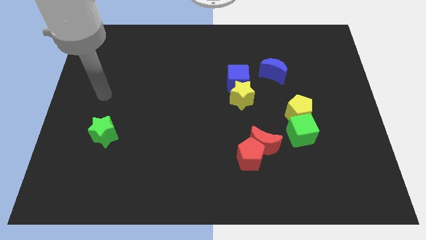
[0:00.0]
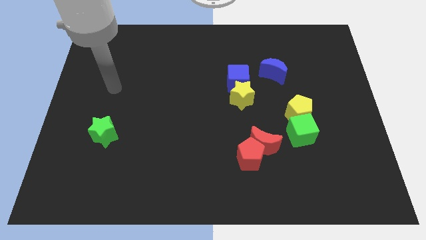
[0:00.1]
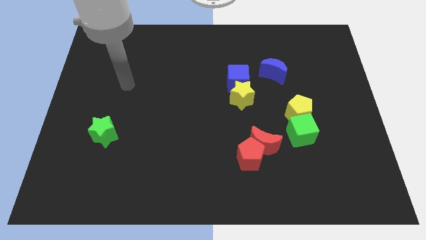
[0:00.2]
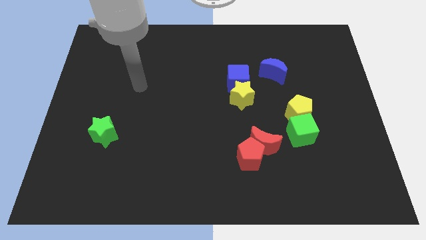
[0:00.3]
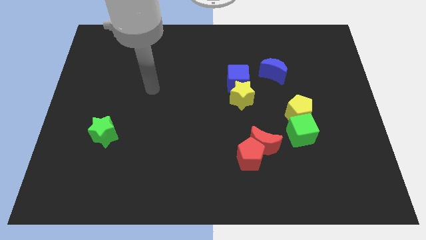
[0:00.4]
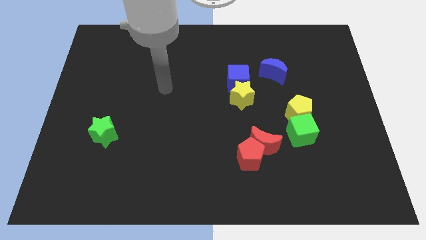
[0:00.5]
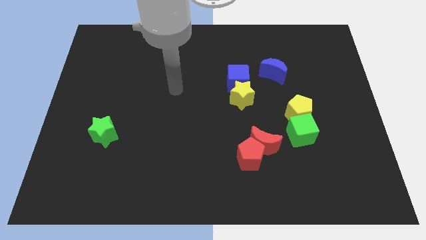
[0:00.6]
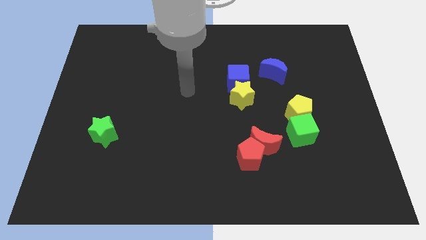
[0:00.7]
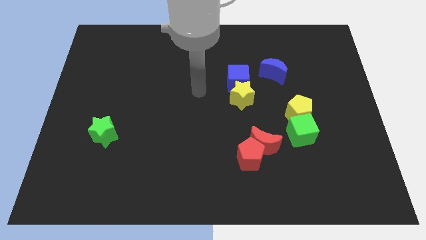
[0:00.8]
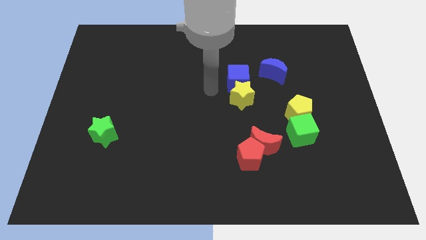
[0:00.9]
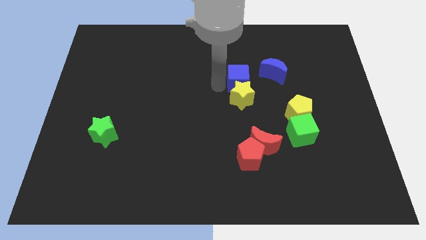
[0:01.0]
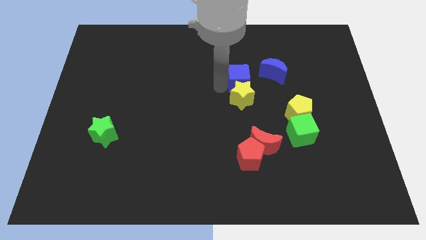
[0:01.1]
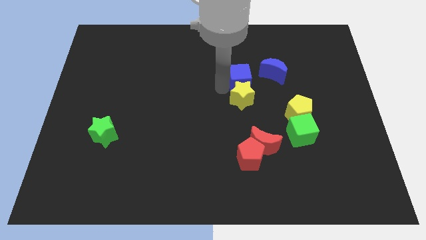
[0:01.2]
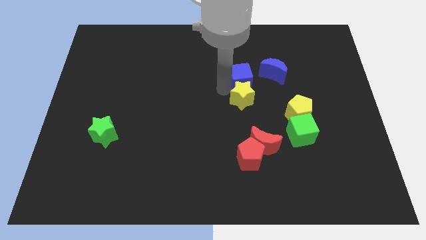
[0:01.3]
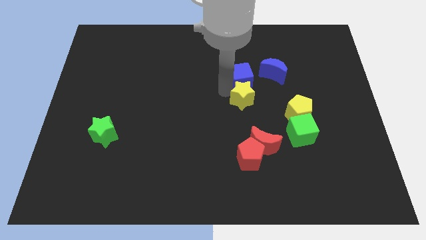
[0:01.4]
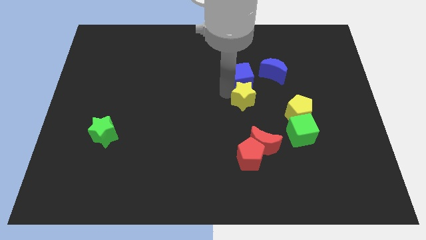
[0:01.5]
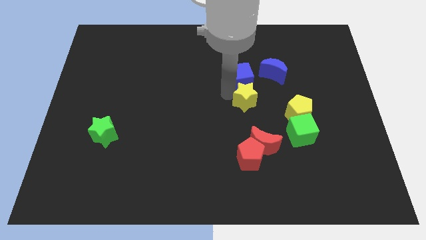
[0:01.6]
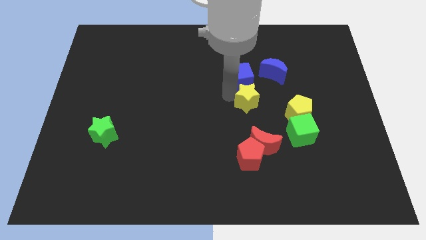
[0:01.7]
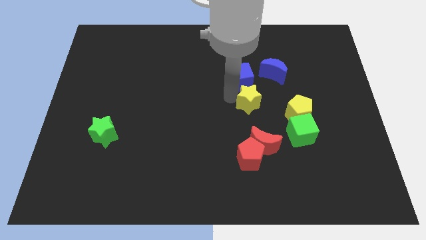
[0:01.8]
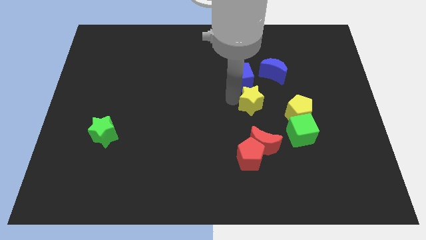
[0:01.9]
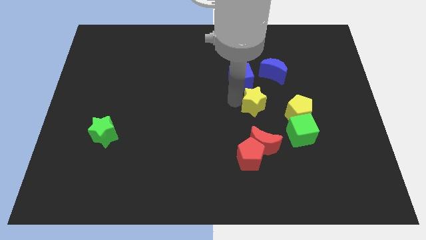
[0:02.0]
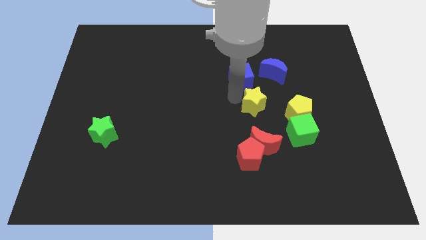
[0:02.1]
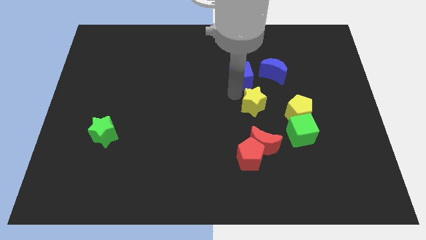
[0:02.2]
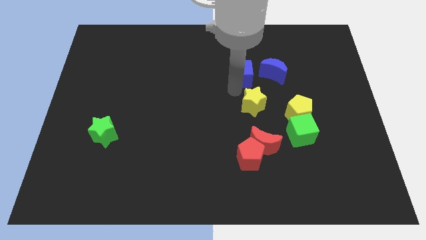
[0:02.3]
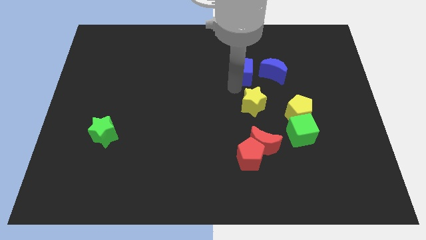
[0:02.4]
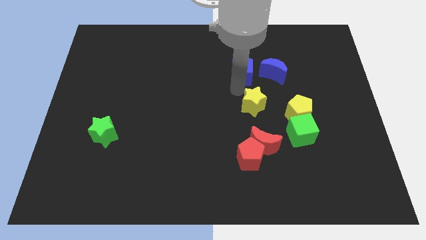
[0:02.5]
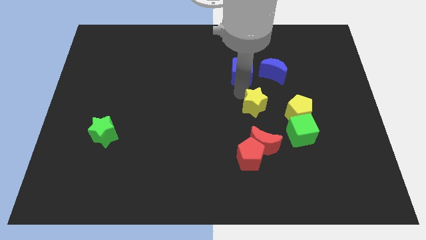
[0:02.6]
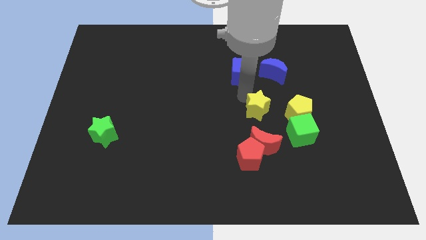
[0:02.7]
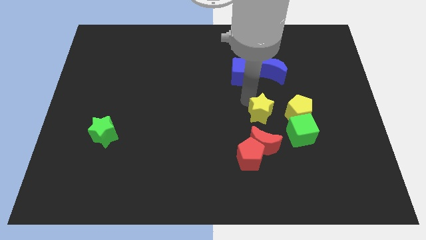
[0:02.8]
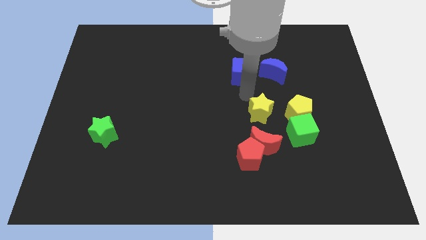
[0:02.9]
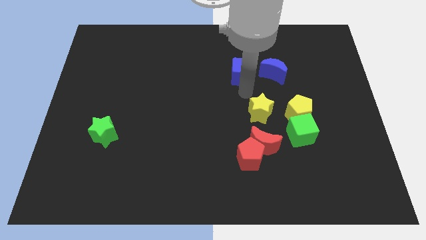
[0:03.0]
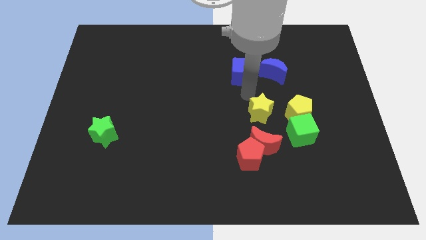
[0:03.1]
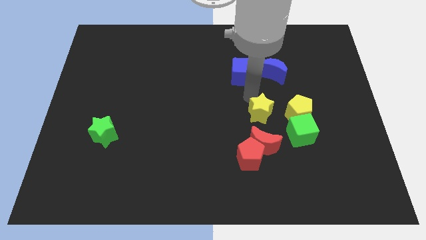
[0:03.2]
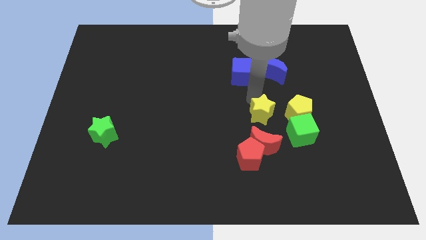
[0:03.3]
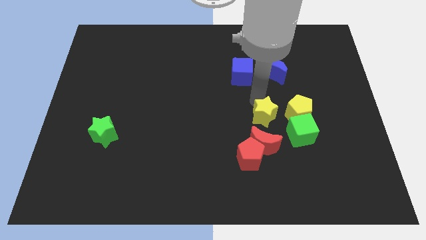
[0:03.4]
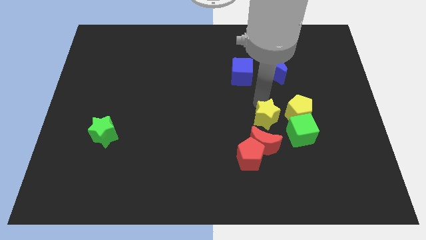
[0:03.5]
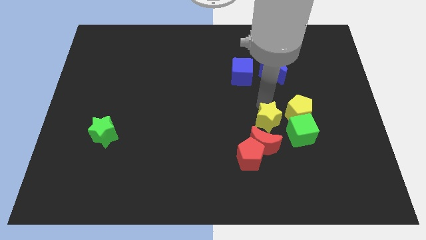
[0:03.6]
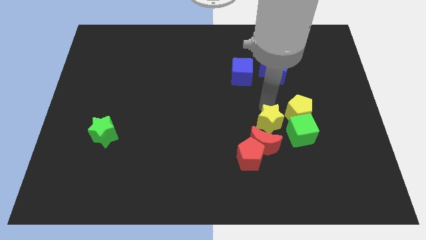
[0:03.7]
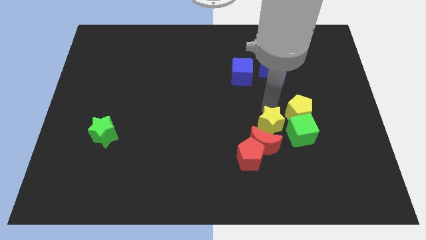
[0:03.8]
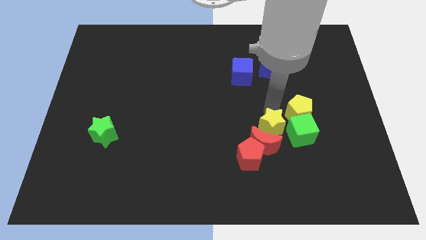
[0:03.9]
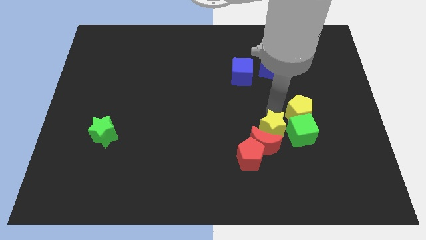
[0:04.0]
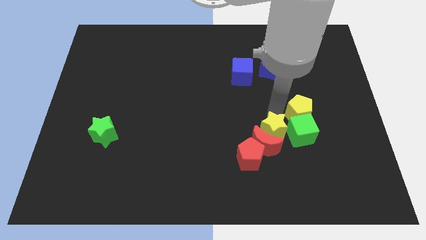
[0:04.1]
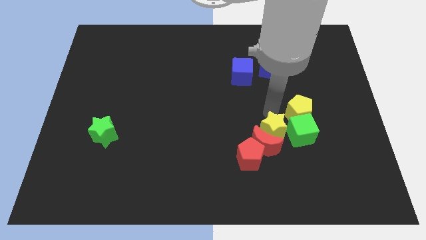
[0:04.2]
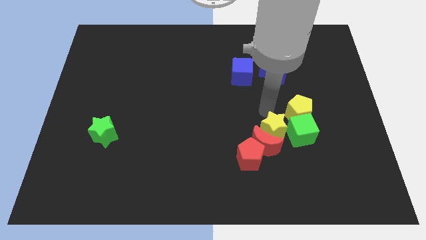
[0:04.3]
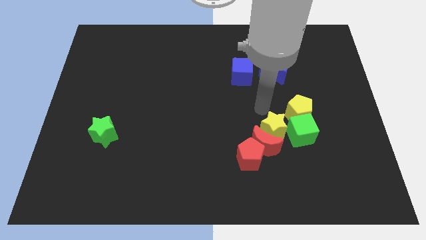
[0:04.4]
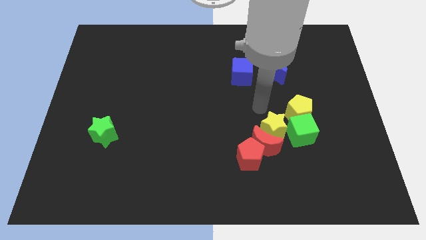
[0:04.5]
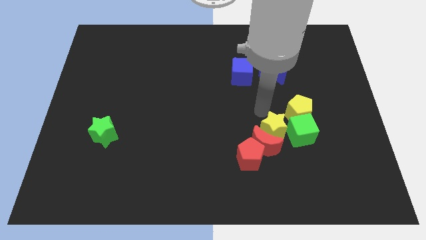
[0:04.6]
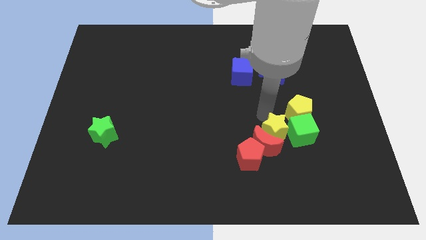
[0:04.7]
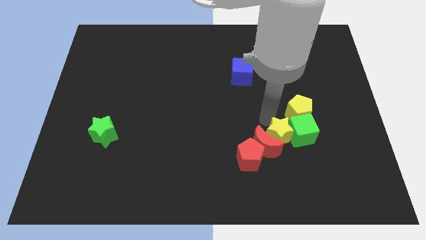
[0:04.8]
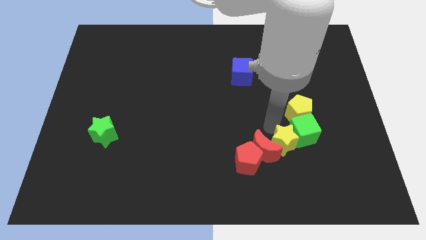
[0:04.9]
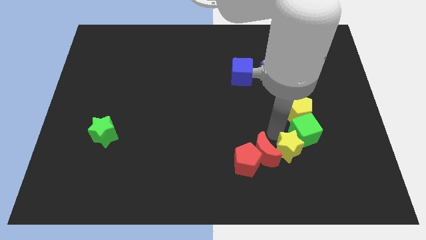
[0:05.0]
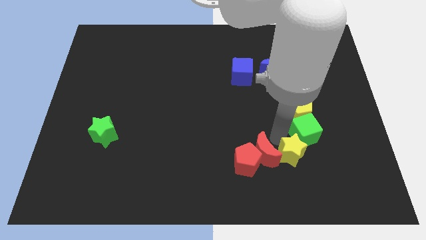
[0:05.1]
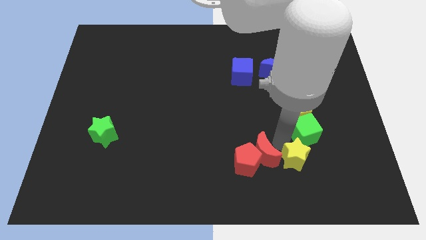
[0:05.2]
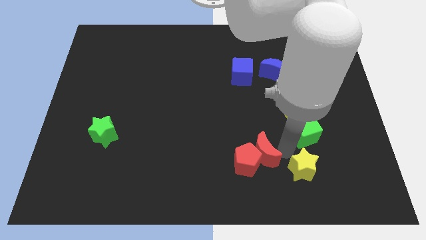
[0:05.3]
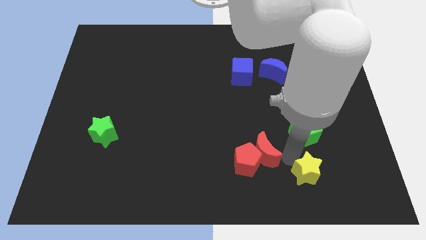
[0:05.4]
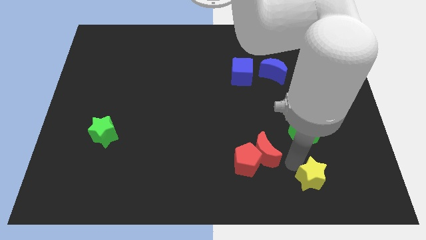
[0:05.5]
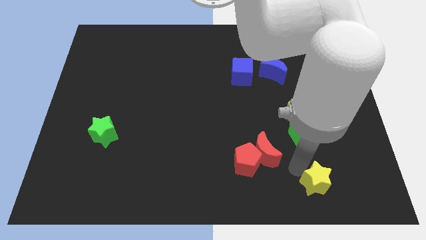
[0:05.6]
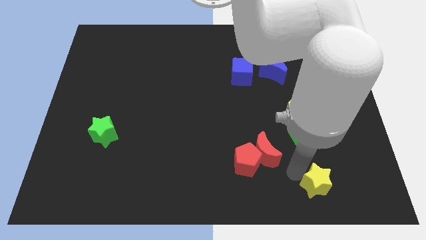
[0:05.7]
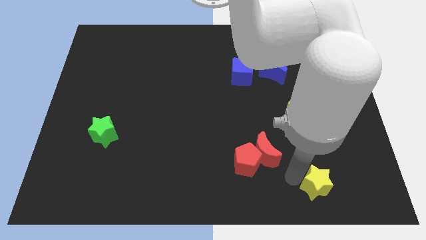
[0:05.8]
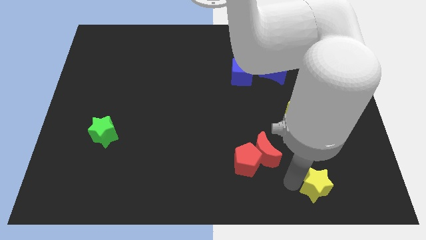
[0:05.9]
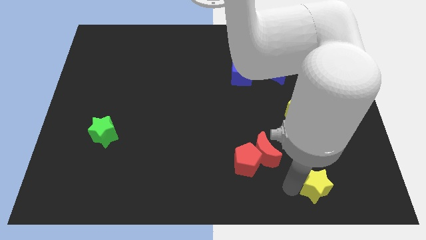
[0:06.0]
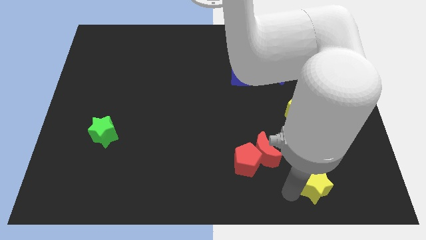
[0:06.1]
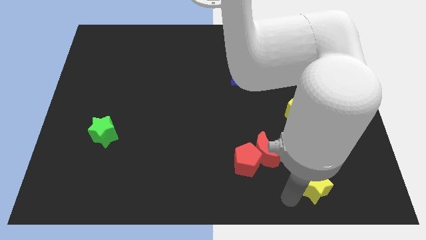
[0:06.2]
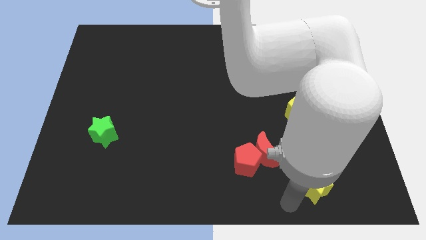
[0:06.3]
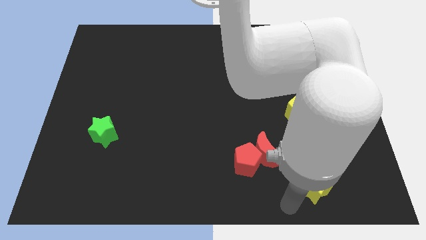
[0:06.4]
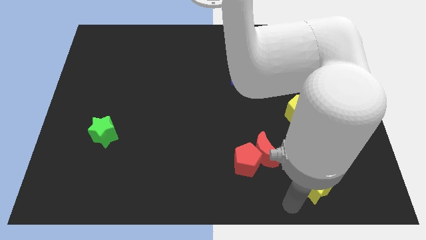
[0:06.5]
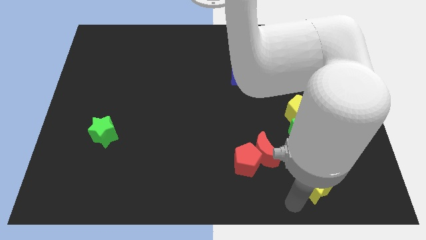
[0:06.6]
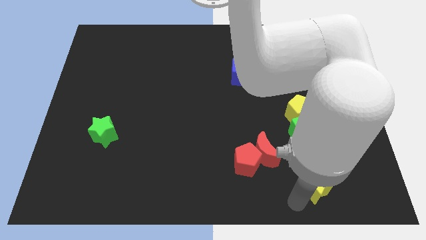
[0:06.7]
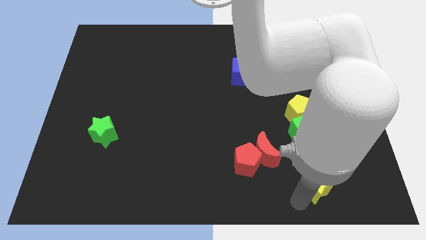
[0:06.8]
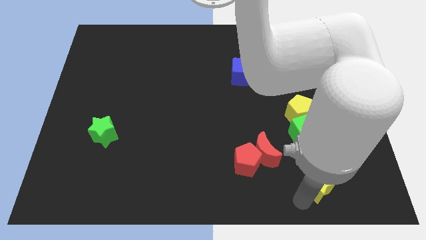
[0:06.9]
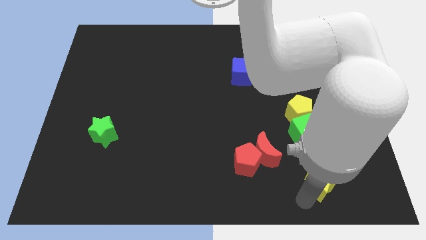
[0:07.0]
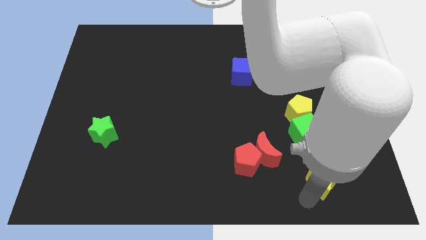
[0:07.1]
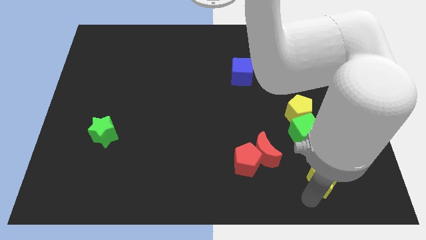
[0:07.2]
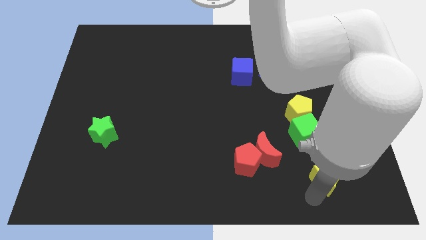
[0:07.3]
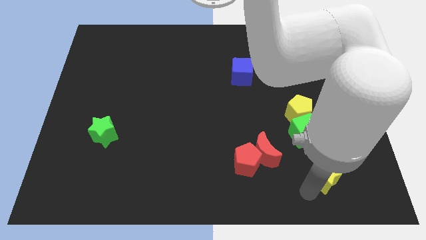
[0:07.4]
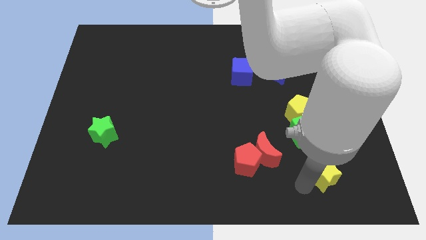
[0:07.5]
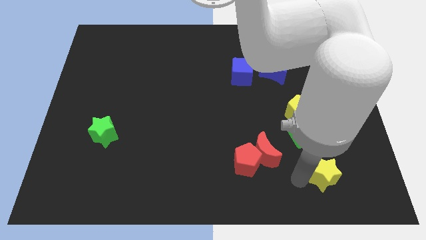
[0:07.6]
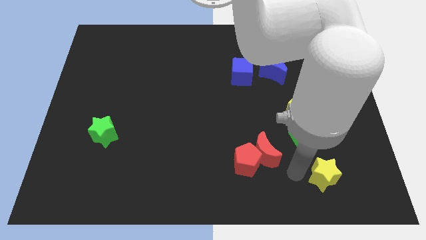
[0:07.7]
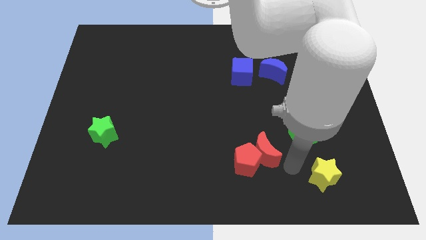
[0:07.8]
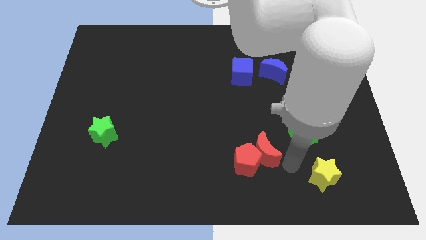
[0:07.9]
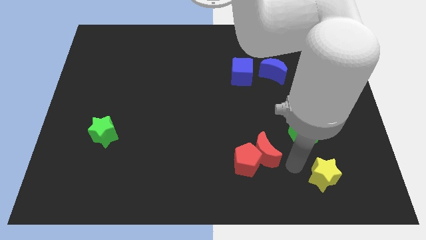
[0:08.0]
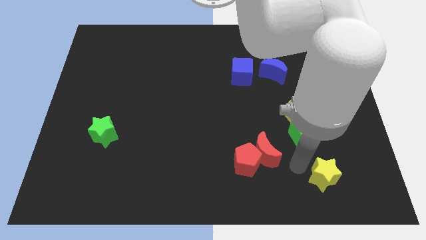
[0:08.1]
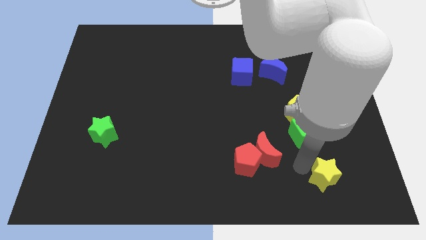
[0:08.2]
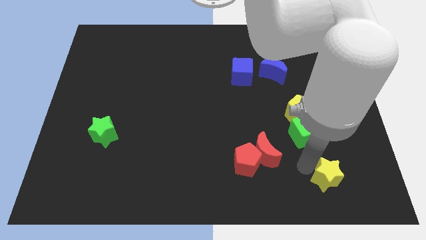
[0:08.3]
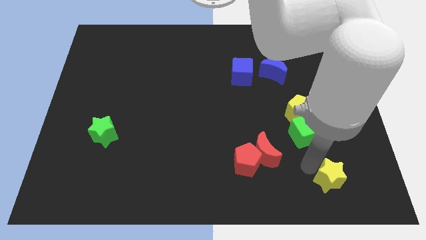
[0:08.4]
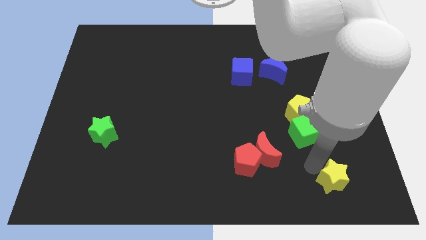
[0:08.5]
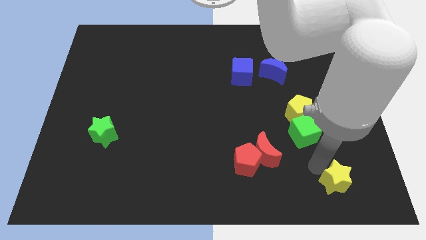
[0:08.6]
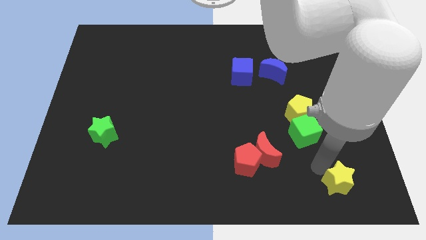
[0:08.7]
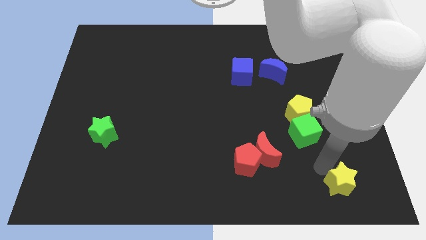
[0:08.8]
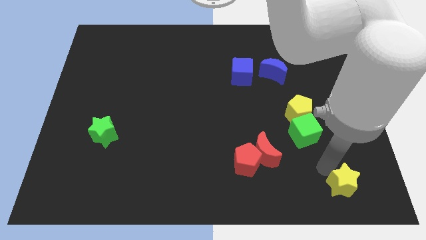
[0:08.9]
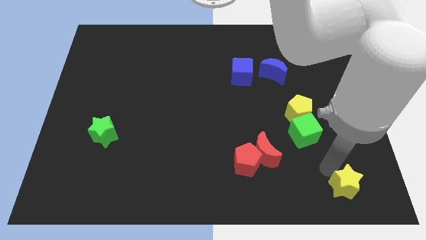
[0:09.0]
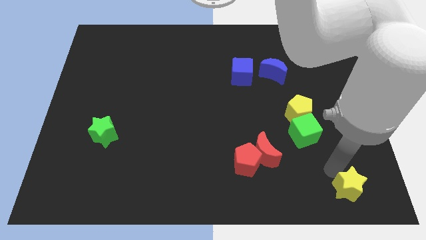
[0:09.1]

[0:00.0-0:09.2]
move the yellow star to the bottom right of the board
